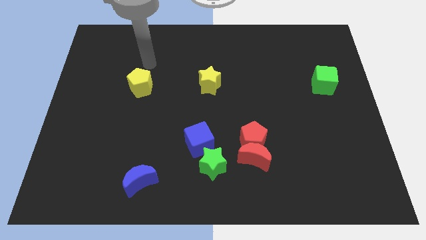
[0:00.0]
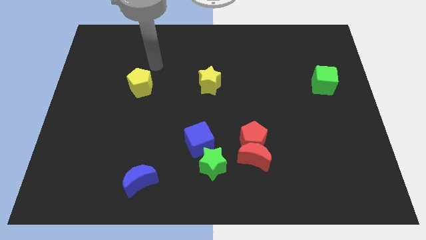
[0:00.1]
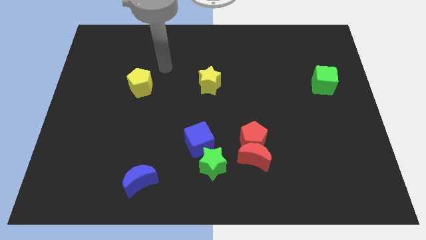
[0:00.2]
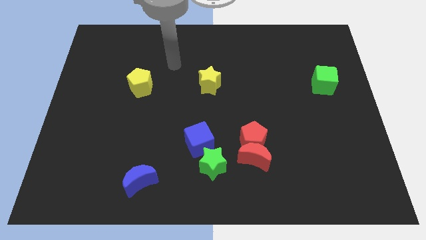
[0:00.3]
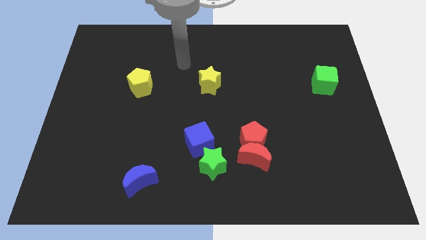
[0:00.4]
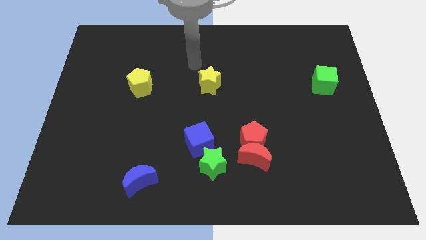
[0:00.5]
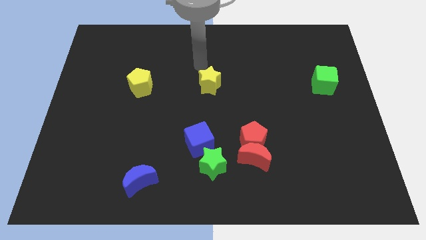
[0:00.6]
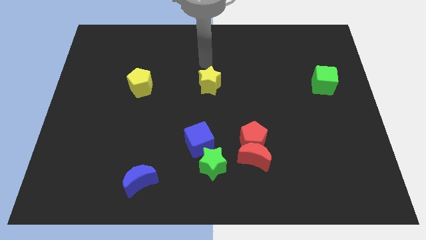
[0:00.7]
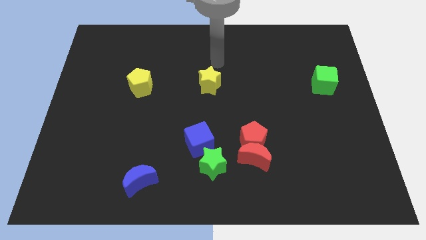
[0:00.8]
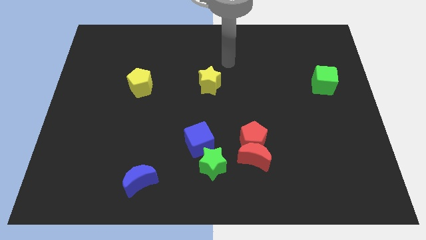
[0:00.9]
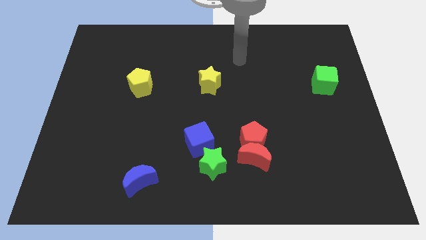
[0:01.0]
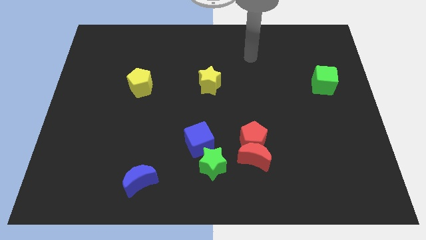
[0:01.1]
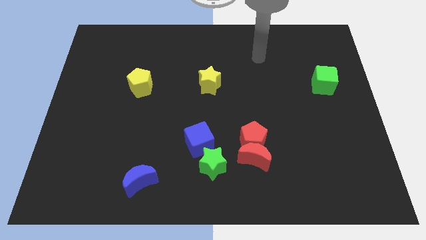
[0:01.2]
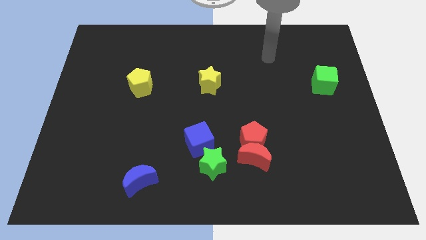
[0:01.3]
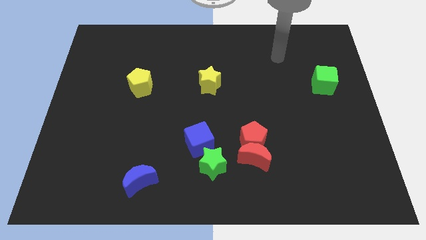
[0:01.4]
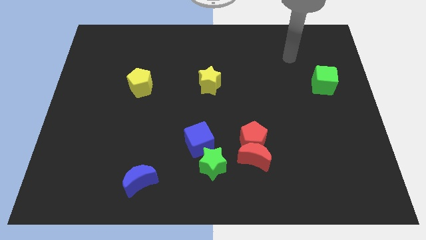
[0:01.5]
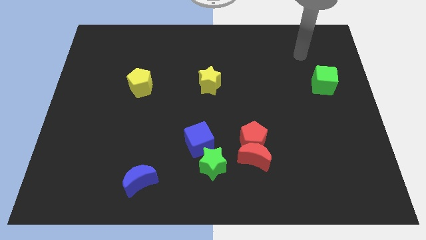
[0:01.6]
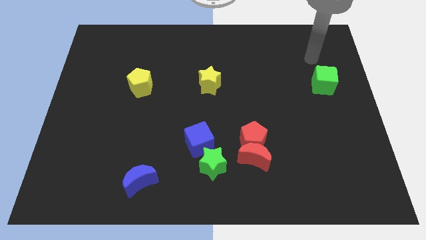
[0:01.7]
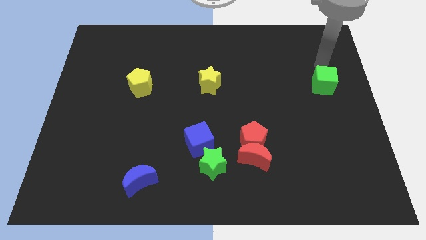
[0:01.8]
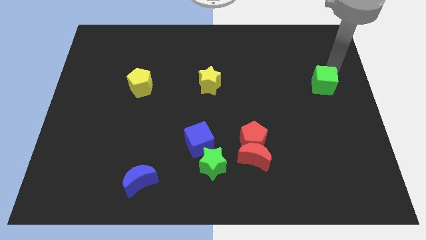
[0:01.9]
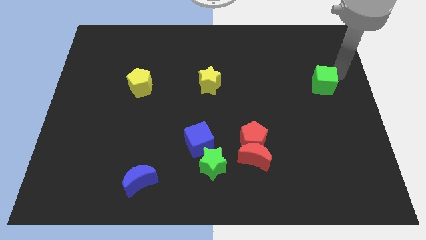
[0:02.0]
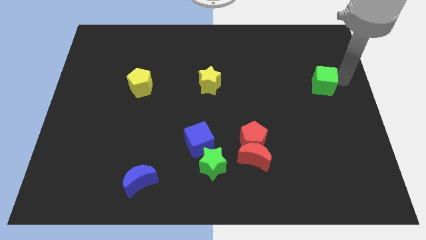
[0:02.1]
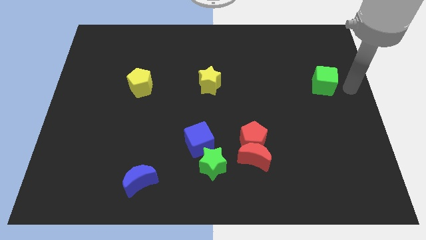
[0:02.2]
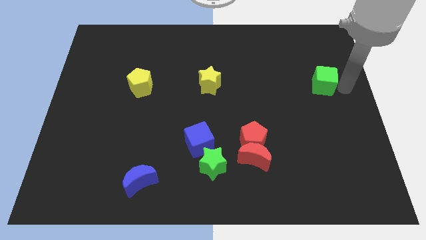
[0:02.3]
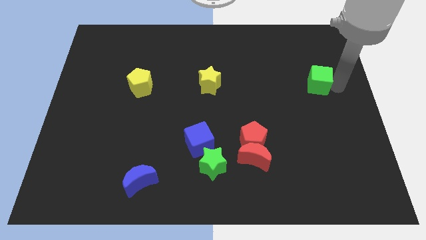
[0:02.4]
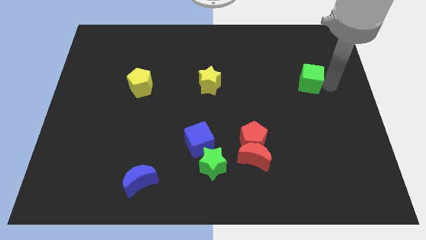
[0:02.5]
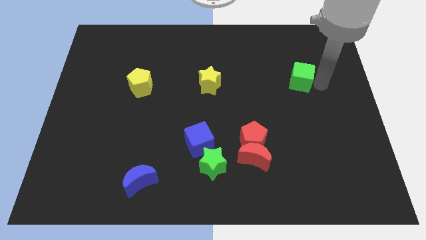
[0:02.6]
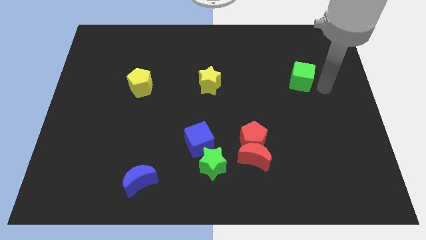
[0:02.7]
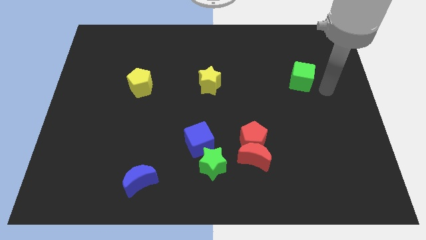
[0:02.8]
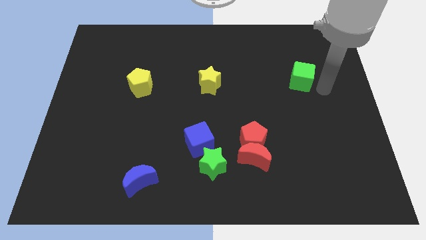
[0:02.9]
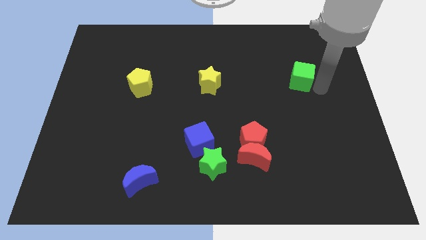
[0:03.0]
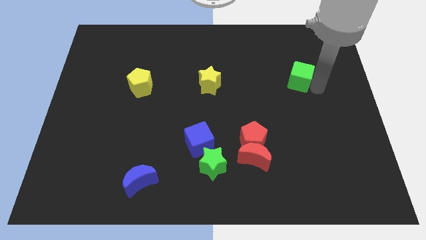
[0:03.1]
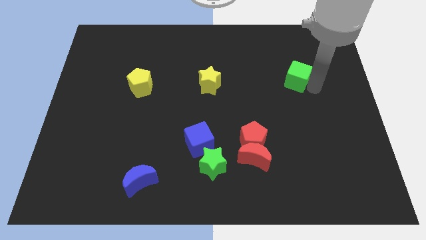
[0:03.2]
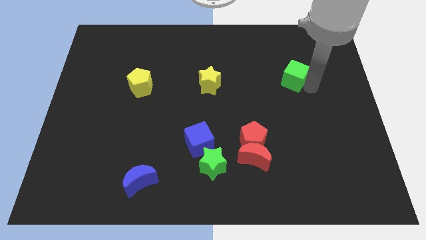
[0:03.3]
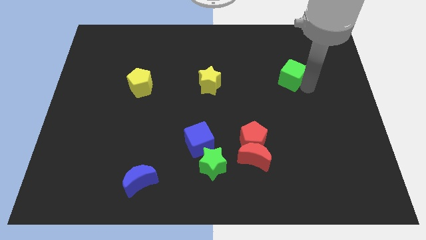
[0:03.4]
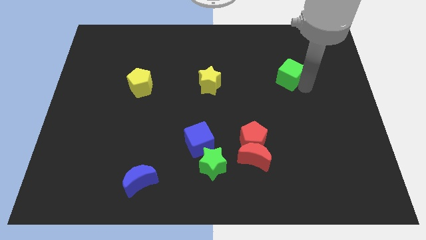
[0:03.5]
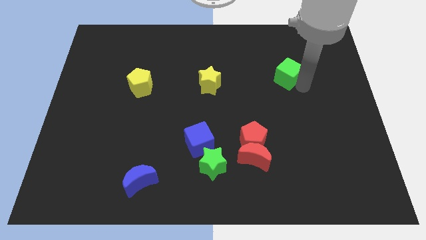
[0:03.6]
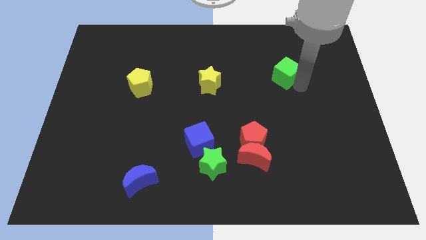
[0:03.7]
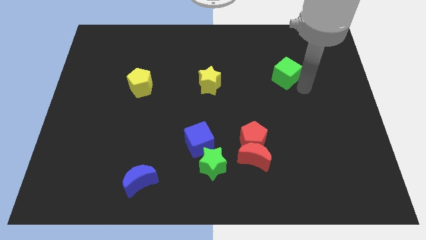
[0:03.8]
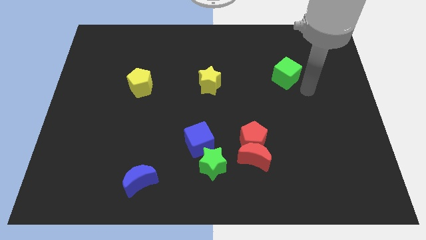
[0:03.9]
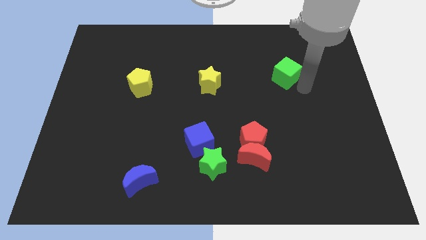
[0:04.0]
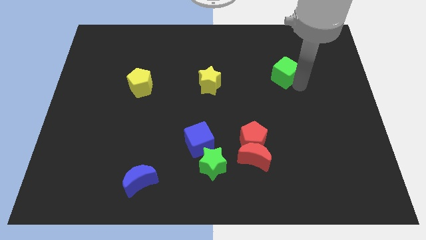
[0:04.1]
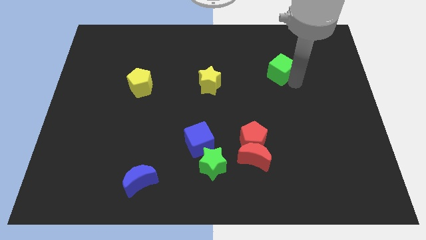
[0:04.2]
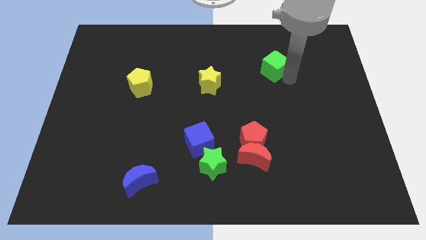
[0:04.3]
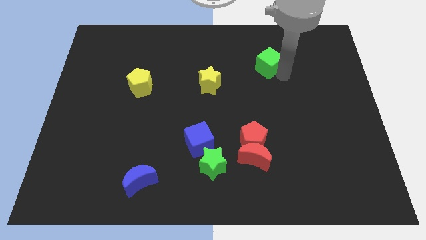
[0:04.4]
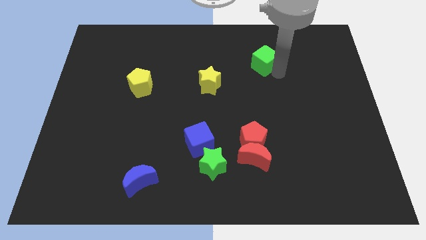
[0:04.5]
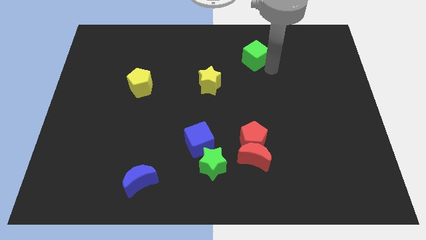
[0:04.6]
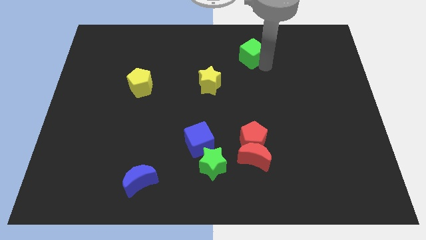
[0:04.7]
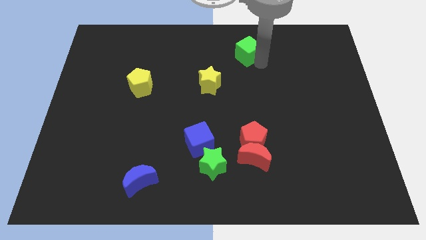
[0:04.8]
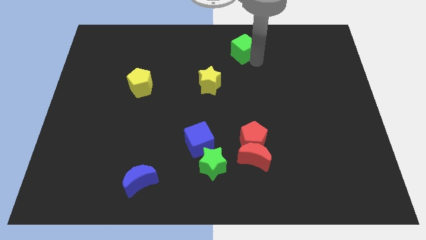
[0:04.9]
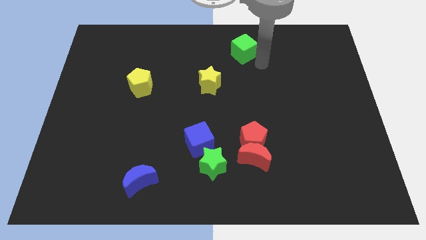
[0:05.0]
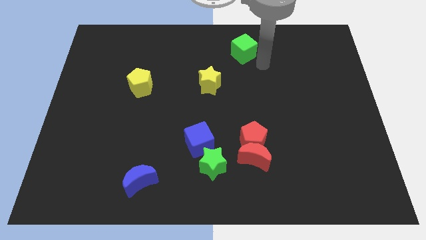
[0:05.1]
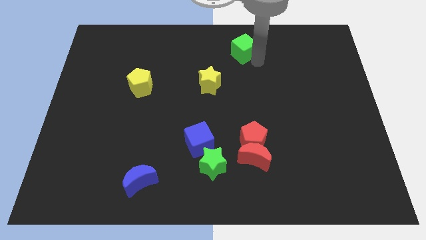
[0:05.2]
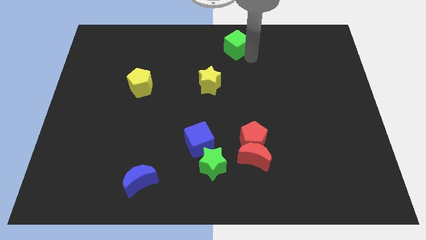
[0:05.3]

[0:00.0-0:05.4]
move the green cube to the top
